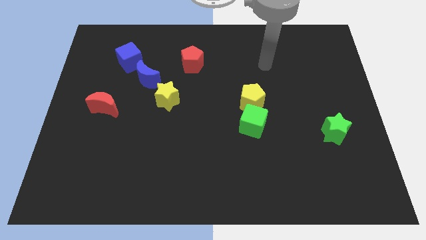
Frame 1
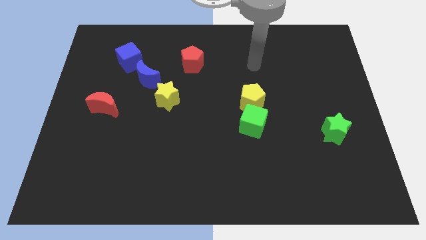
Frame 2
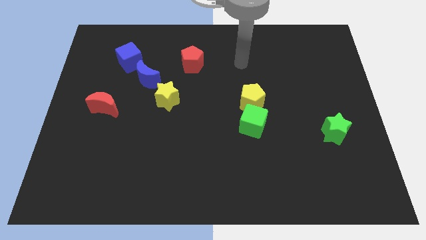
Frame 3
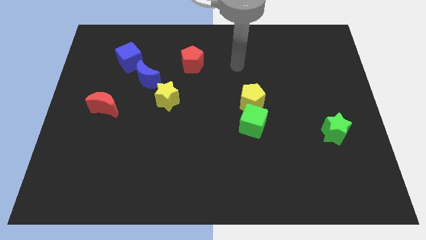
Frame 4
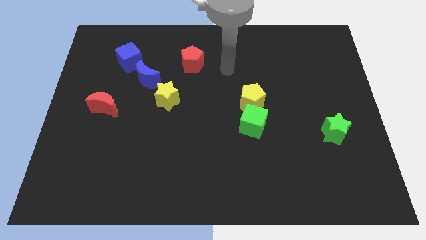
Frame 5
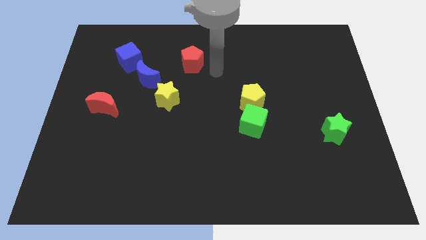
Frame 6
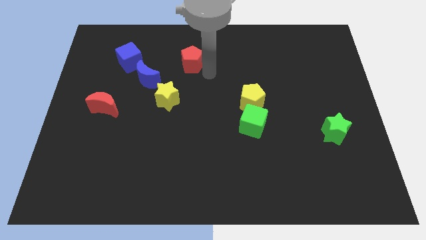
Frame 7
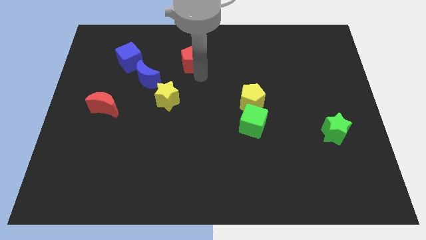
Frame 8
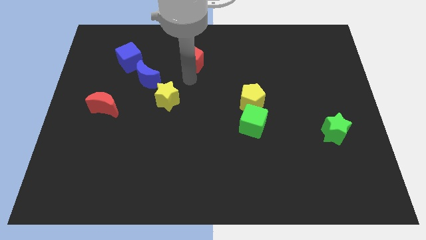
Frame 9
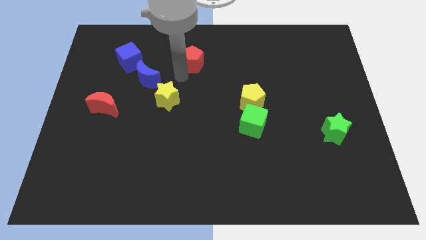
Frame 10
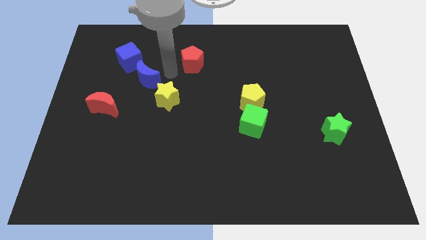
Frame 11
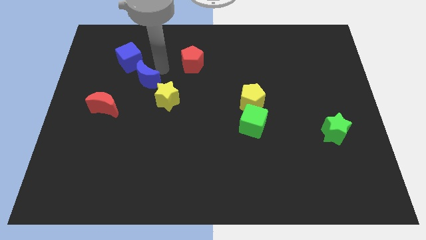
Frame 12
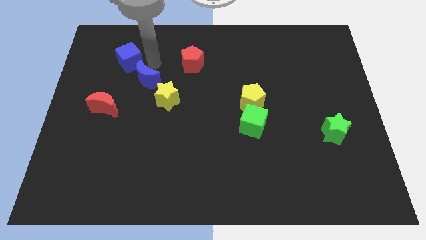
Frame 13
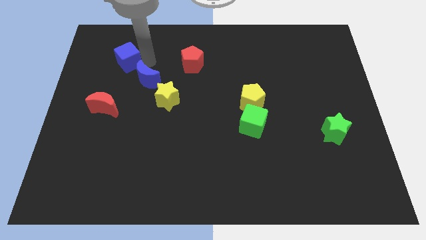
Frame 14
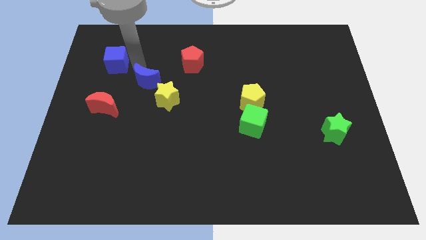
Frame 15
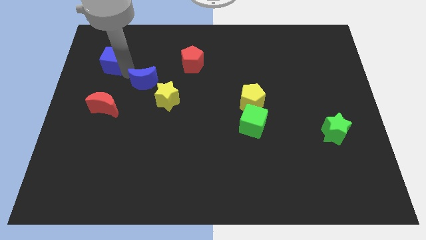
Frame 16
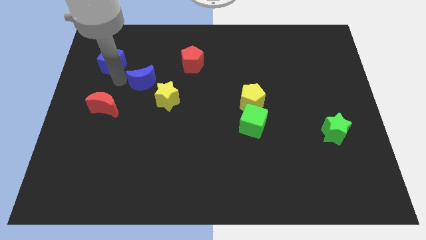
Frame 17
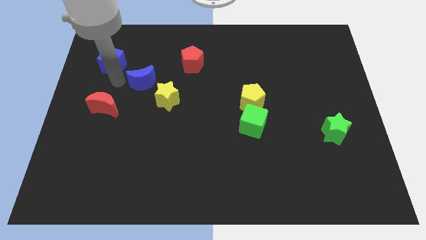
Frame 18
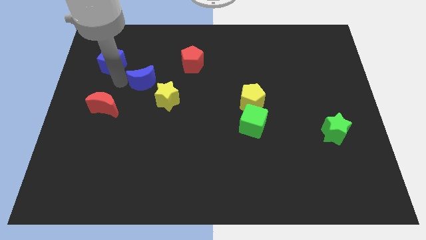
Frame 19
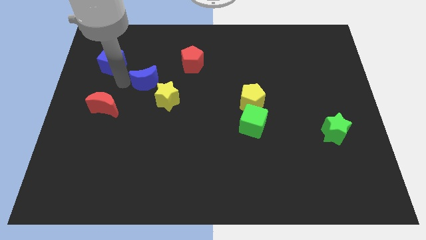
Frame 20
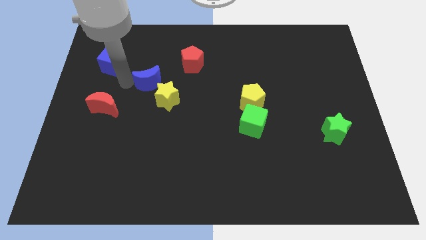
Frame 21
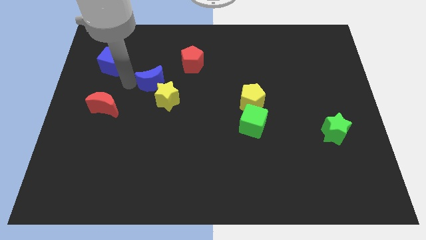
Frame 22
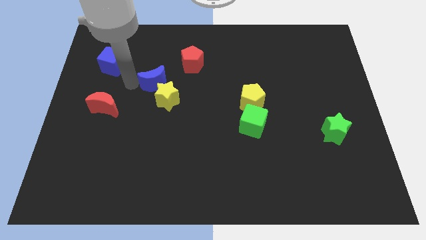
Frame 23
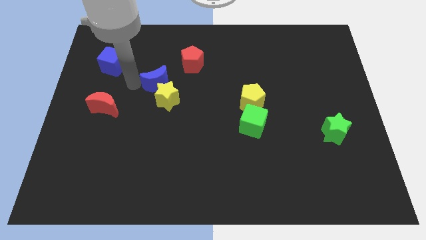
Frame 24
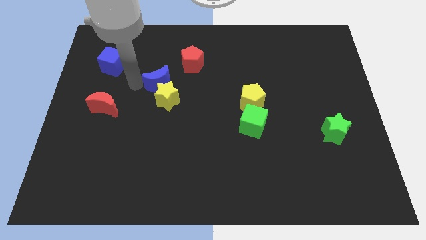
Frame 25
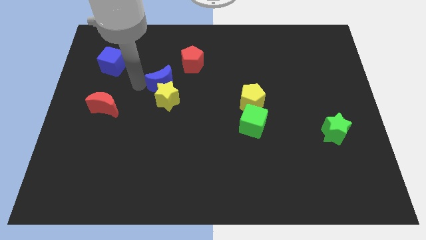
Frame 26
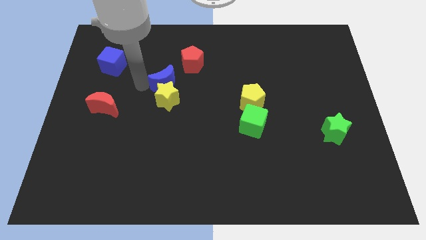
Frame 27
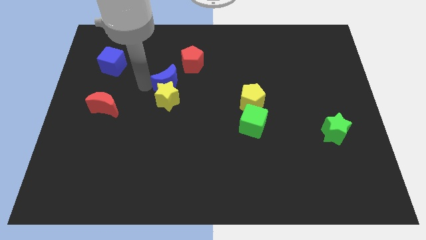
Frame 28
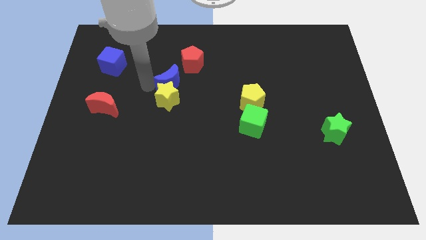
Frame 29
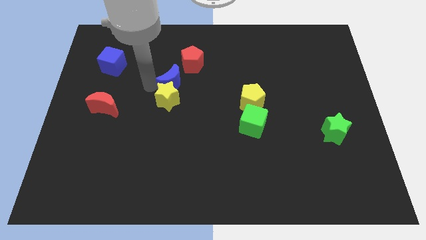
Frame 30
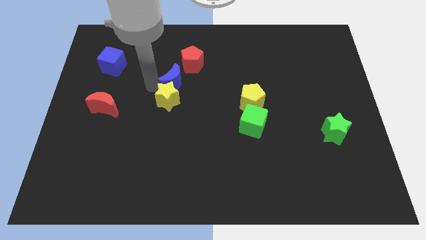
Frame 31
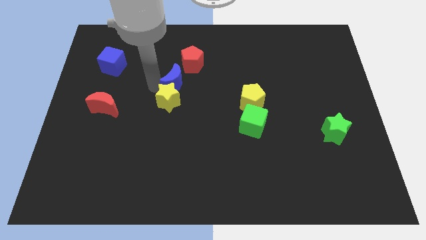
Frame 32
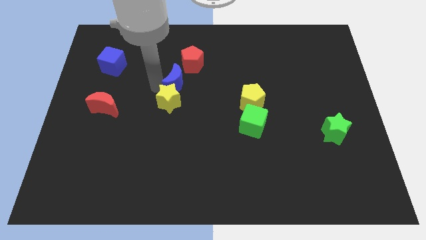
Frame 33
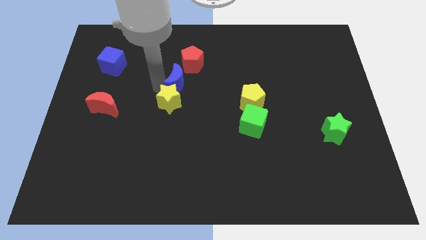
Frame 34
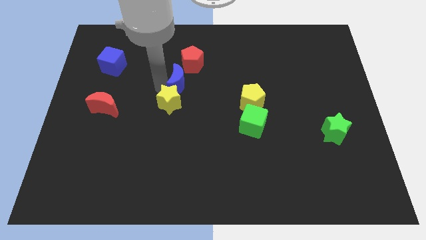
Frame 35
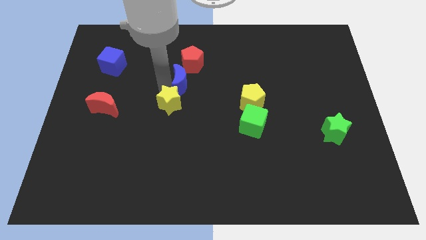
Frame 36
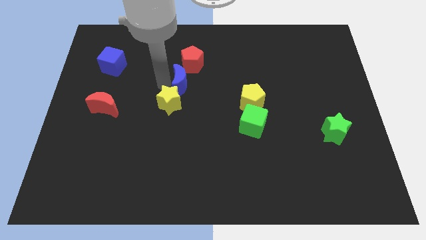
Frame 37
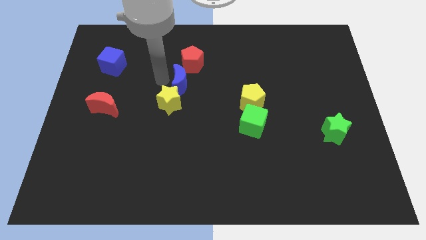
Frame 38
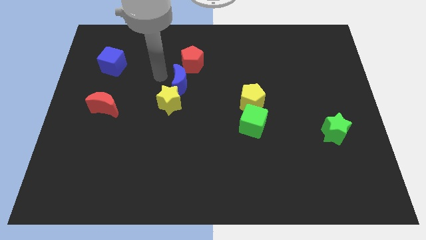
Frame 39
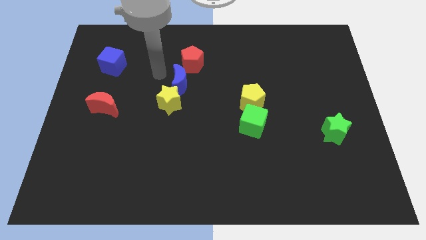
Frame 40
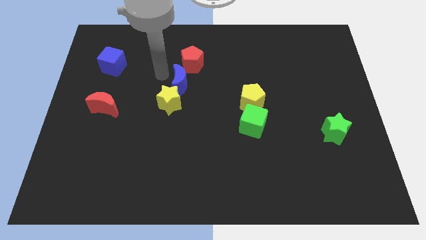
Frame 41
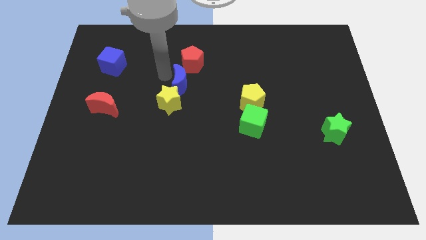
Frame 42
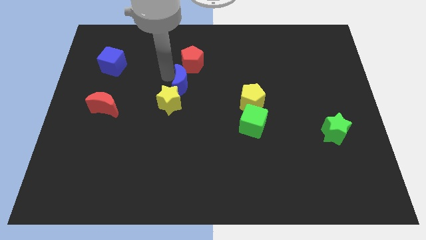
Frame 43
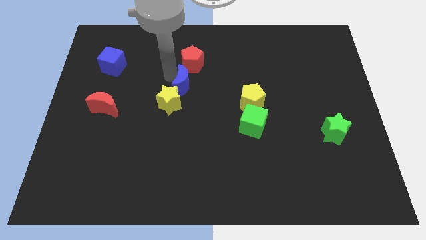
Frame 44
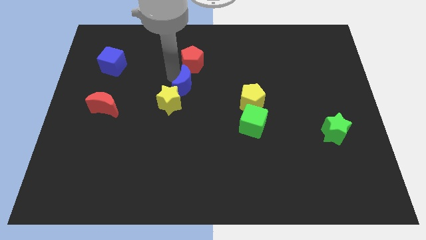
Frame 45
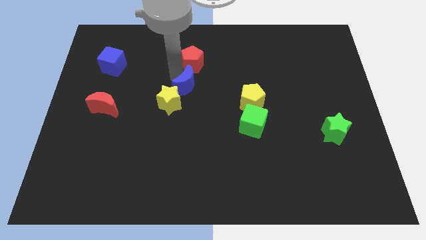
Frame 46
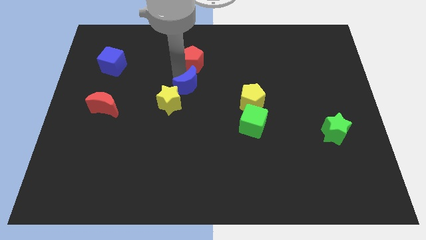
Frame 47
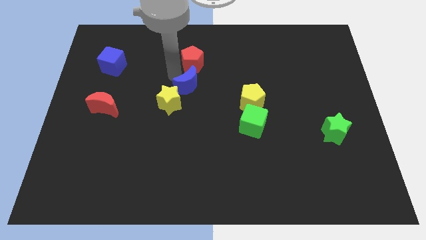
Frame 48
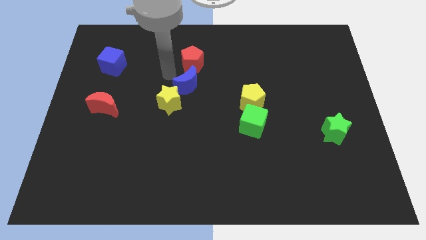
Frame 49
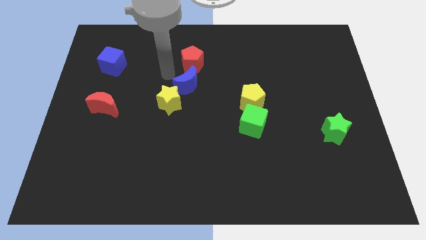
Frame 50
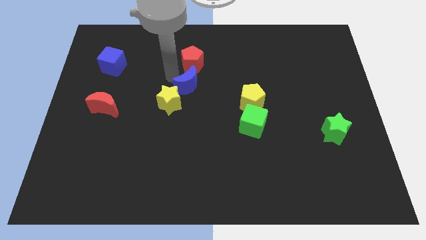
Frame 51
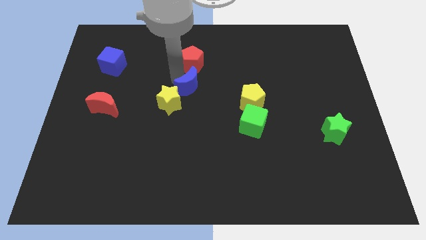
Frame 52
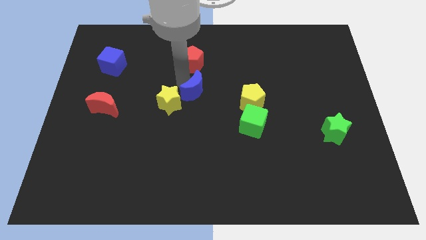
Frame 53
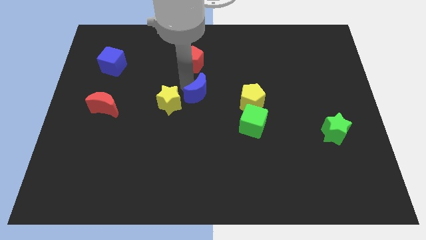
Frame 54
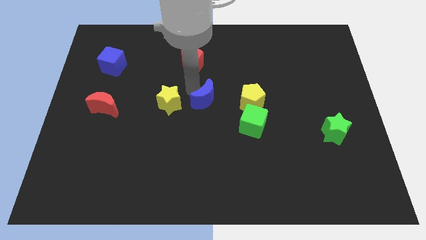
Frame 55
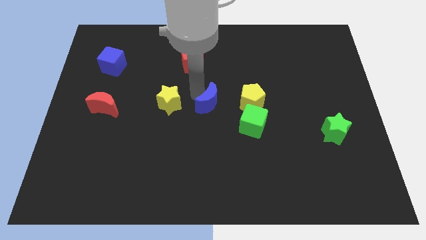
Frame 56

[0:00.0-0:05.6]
push the blue moon to the top left of the green cube
